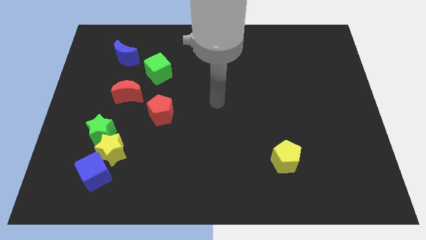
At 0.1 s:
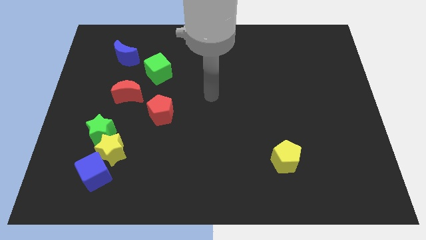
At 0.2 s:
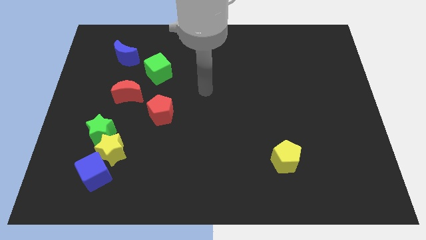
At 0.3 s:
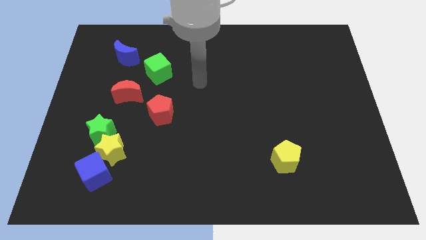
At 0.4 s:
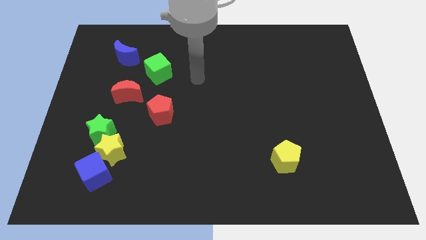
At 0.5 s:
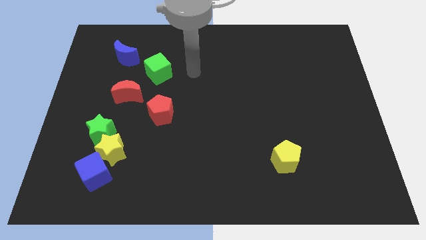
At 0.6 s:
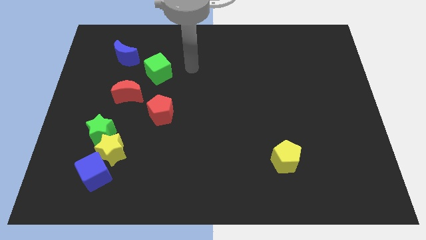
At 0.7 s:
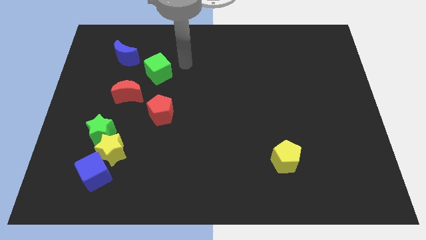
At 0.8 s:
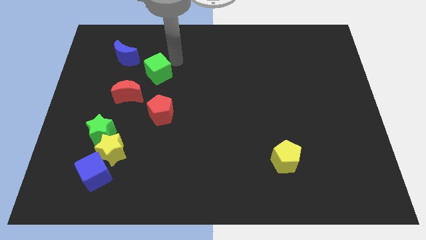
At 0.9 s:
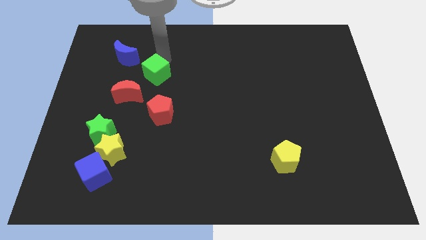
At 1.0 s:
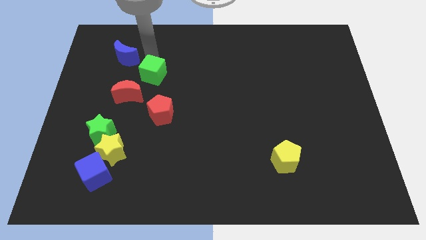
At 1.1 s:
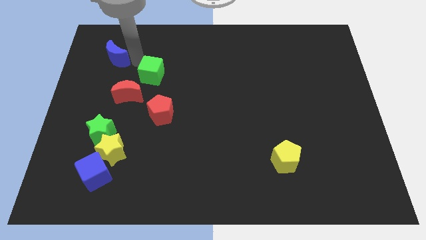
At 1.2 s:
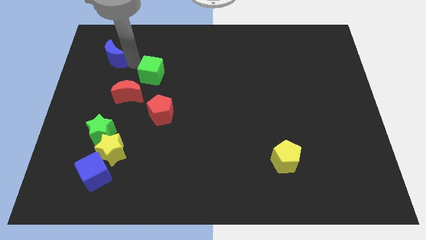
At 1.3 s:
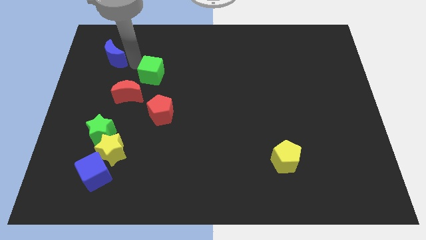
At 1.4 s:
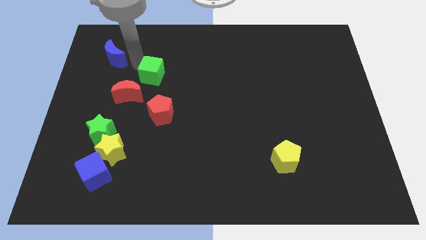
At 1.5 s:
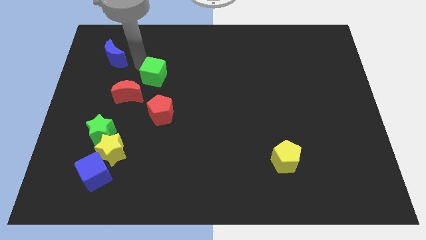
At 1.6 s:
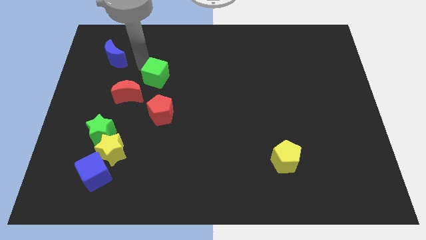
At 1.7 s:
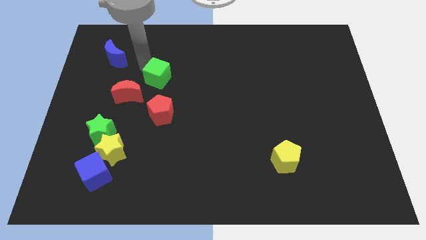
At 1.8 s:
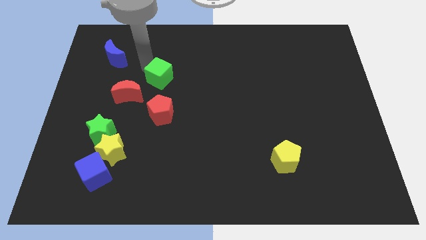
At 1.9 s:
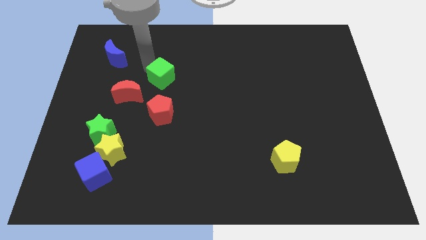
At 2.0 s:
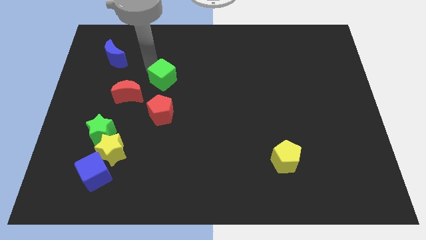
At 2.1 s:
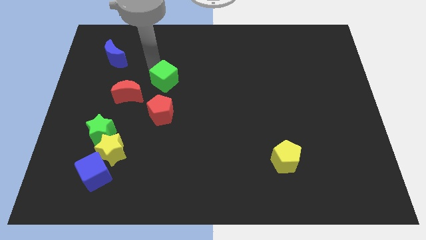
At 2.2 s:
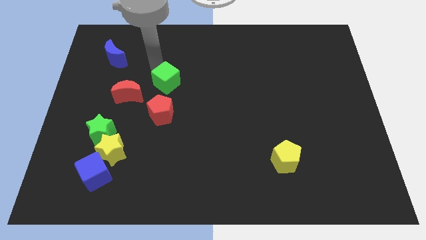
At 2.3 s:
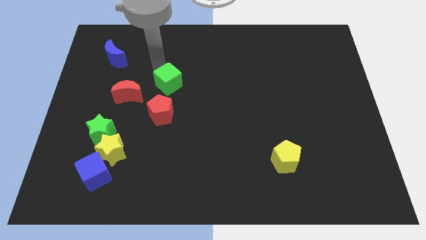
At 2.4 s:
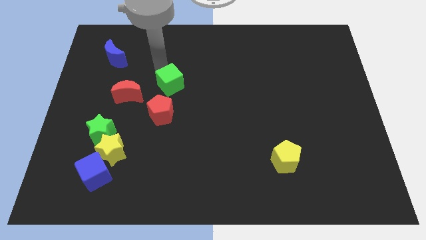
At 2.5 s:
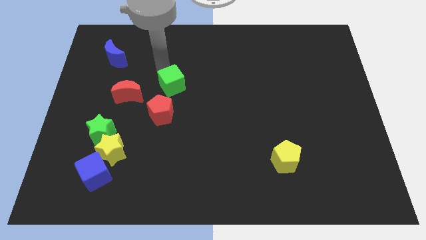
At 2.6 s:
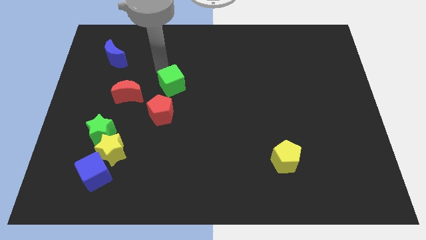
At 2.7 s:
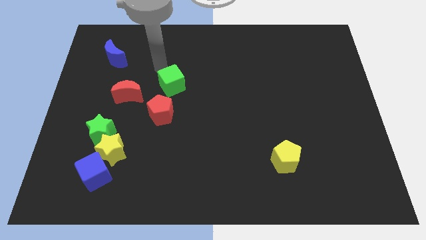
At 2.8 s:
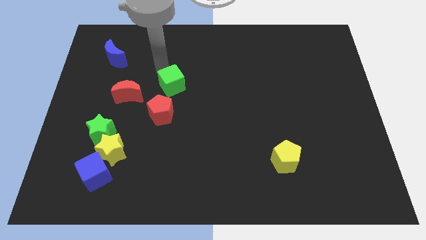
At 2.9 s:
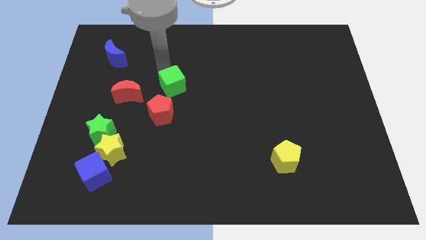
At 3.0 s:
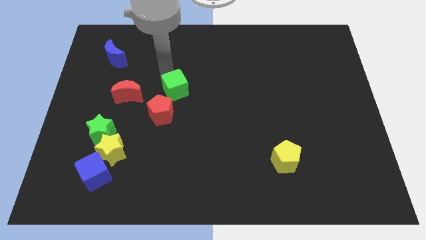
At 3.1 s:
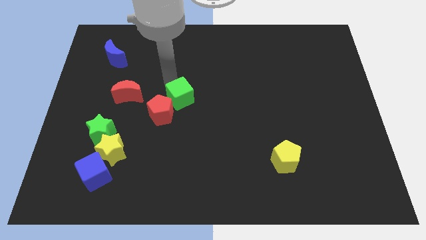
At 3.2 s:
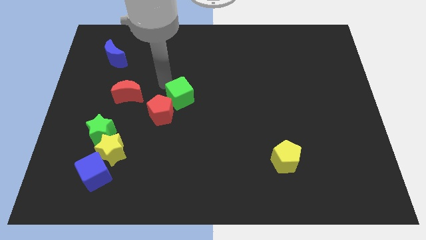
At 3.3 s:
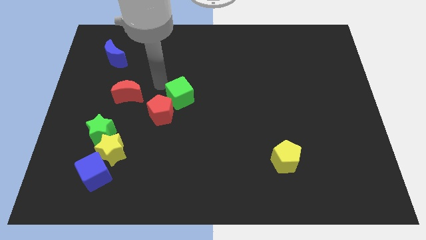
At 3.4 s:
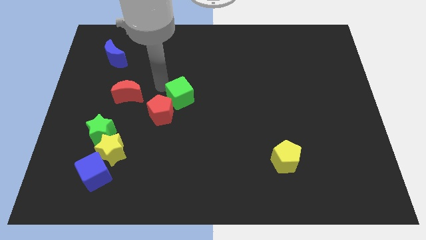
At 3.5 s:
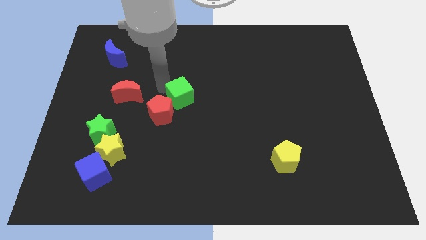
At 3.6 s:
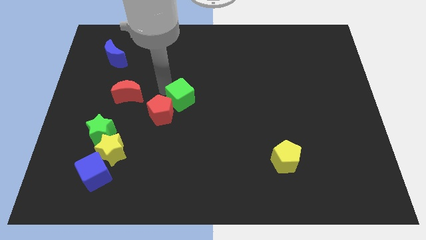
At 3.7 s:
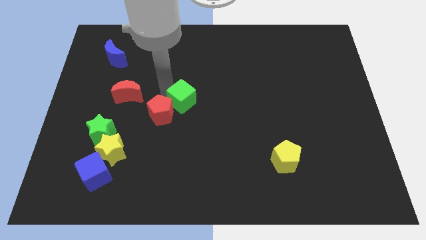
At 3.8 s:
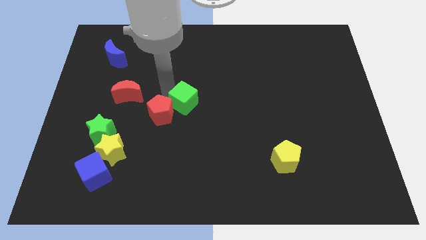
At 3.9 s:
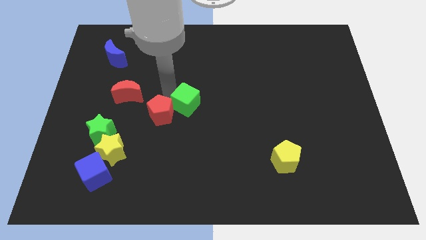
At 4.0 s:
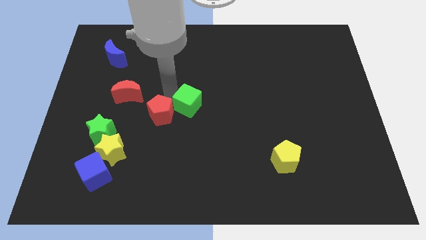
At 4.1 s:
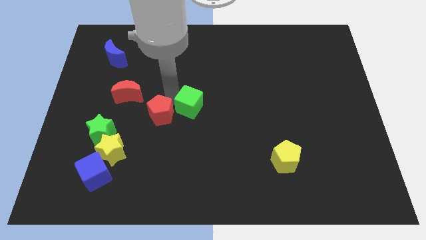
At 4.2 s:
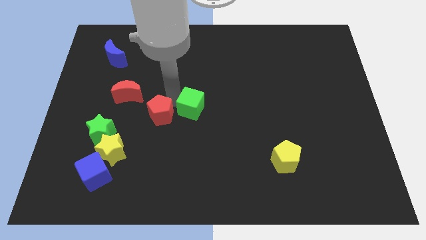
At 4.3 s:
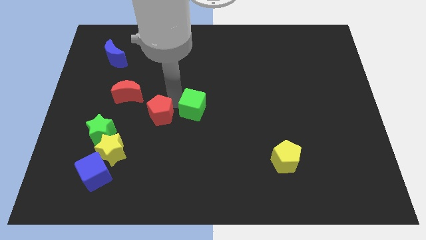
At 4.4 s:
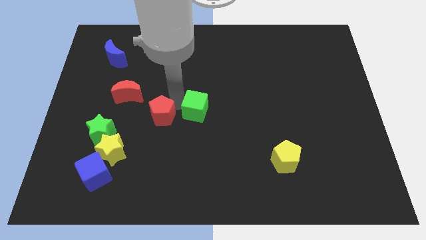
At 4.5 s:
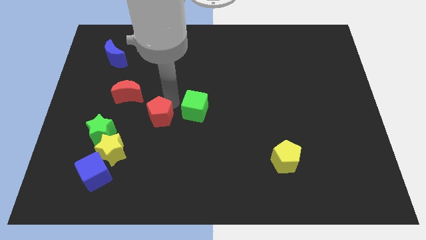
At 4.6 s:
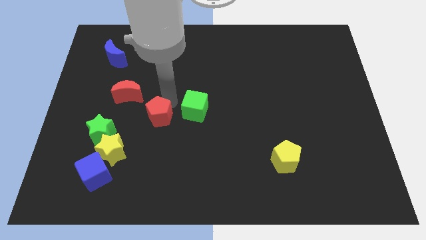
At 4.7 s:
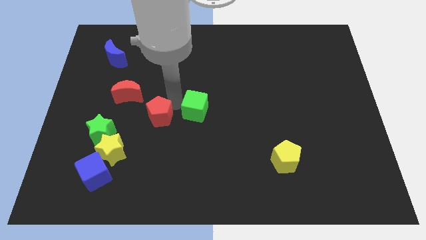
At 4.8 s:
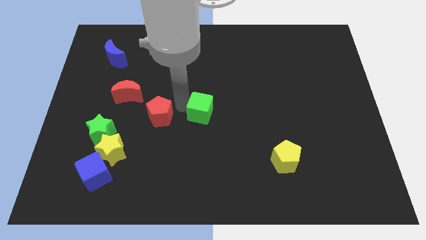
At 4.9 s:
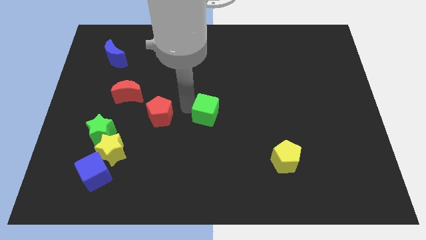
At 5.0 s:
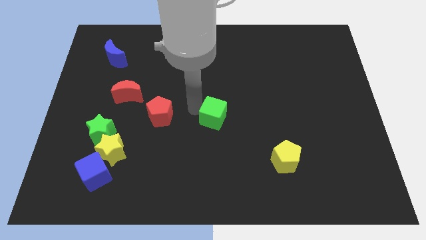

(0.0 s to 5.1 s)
push the green cube downwards and to the right diagonally

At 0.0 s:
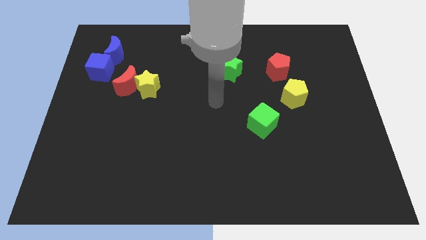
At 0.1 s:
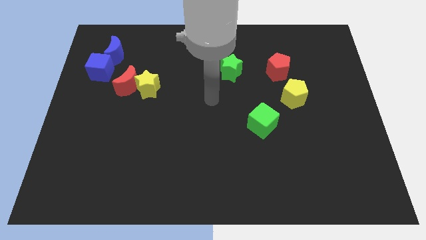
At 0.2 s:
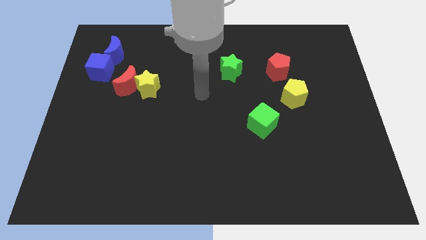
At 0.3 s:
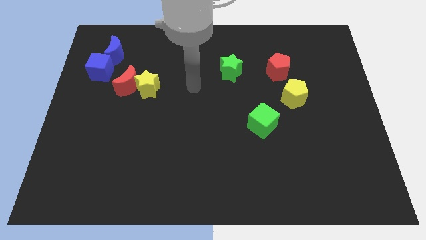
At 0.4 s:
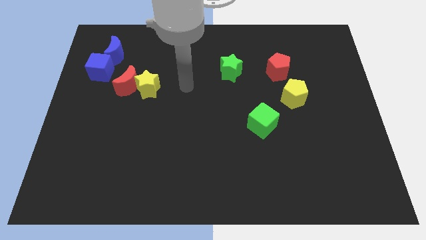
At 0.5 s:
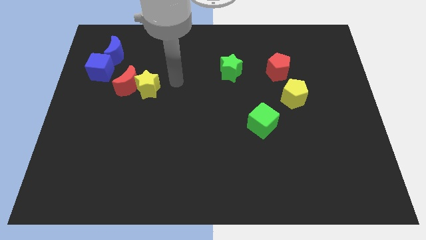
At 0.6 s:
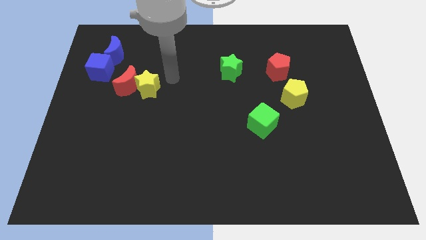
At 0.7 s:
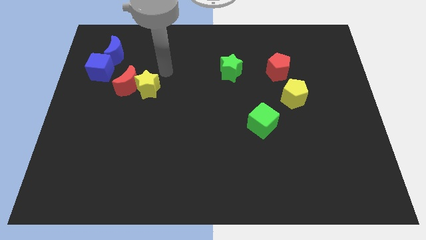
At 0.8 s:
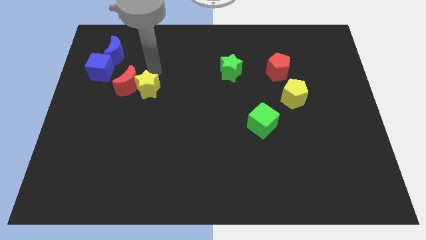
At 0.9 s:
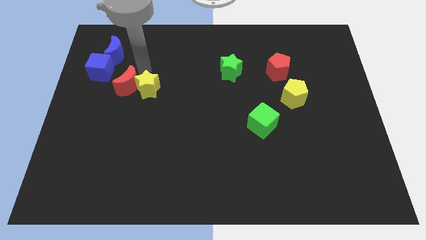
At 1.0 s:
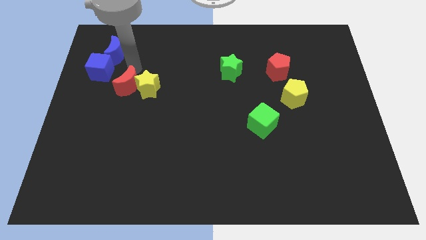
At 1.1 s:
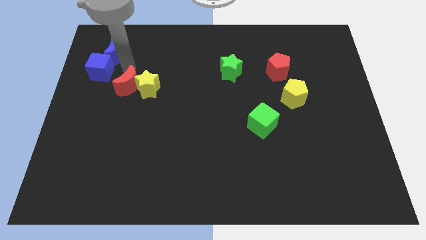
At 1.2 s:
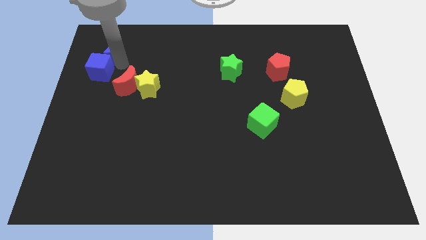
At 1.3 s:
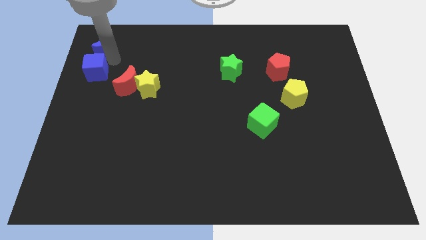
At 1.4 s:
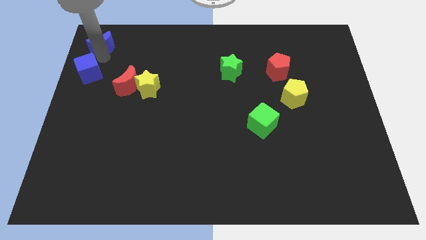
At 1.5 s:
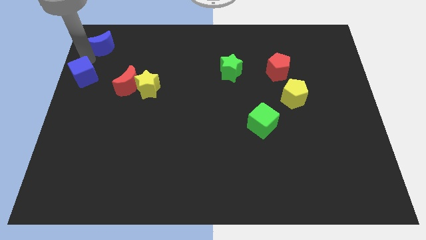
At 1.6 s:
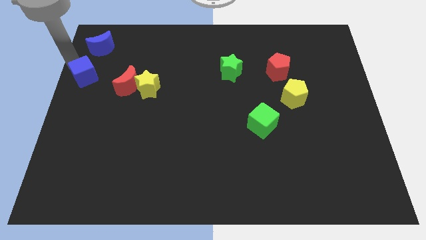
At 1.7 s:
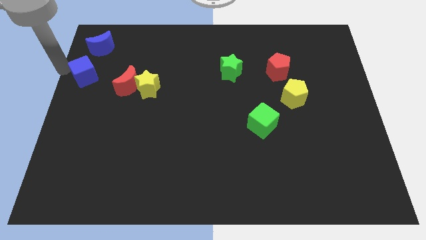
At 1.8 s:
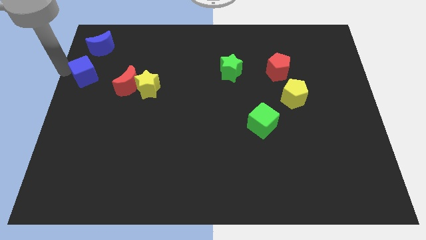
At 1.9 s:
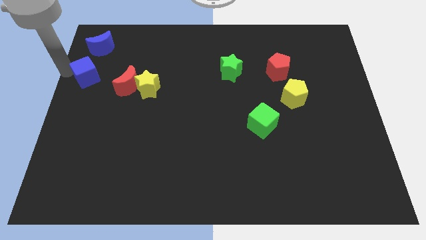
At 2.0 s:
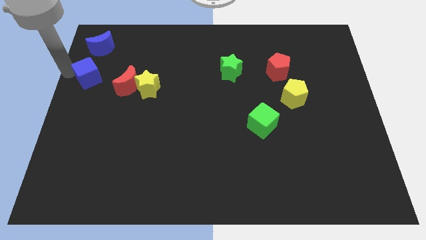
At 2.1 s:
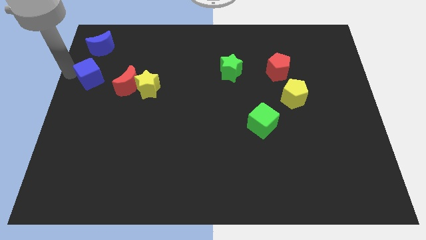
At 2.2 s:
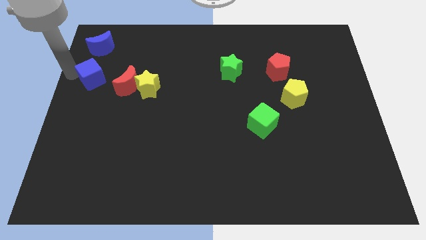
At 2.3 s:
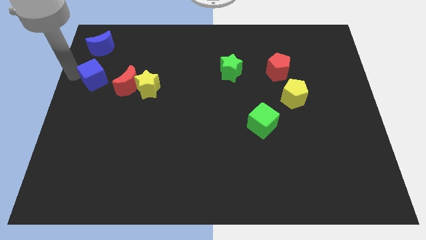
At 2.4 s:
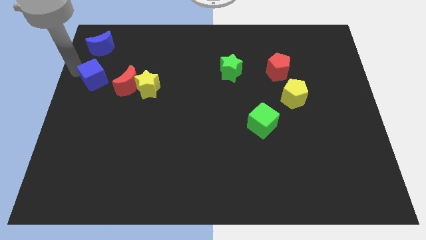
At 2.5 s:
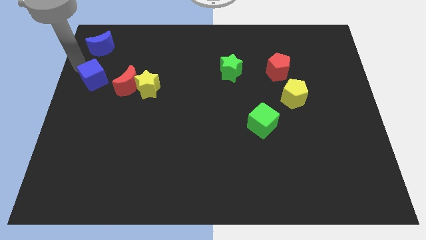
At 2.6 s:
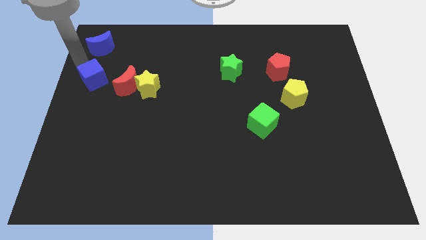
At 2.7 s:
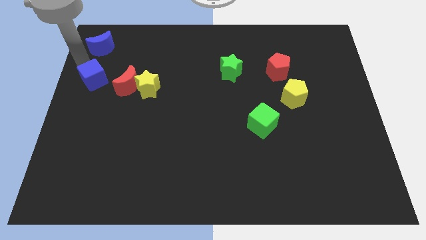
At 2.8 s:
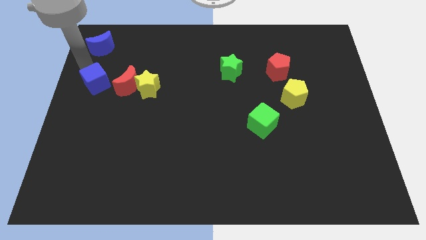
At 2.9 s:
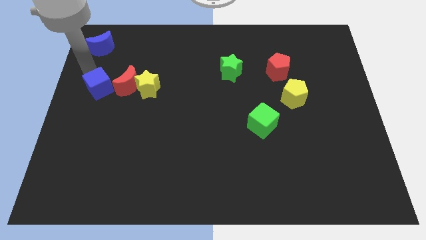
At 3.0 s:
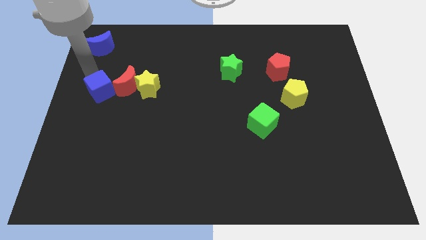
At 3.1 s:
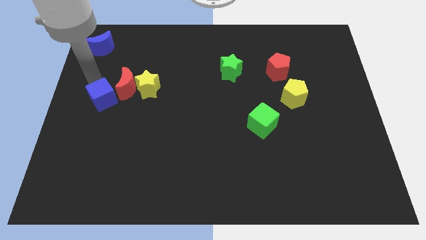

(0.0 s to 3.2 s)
slide the blue cube slightly down and right
